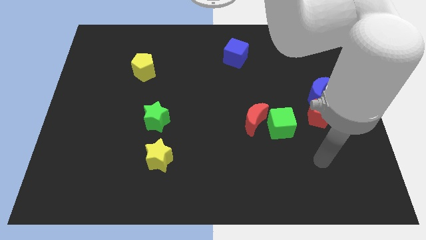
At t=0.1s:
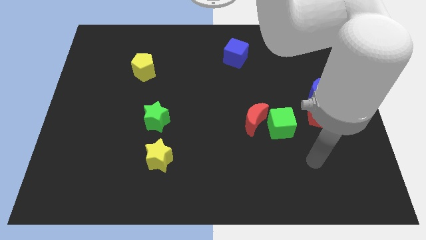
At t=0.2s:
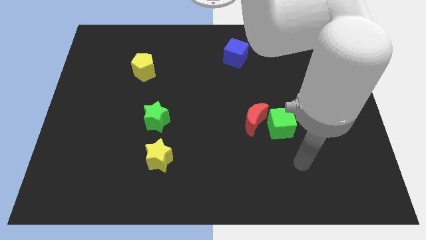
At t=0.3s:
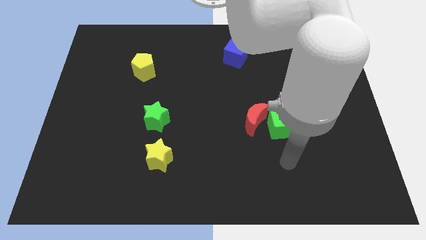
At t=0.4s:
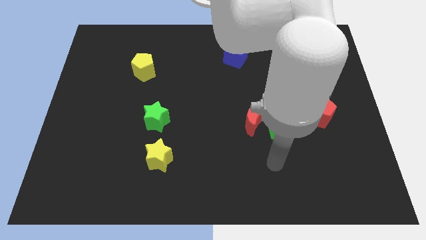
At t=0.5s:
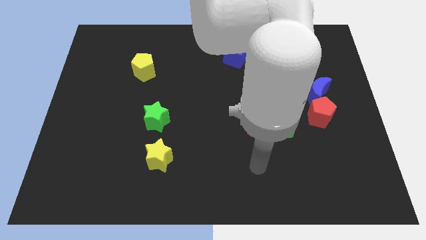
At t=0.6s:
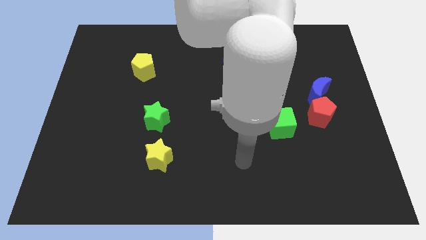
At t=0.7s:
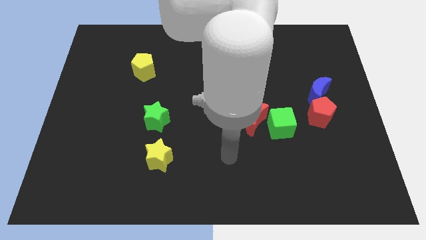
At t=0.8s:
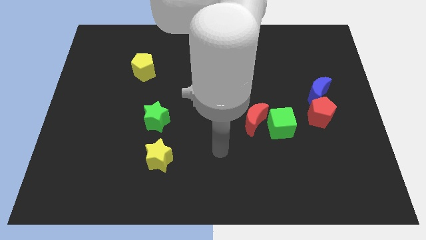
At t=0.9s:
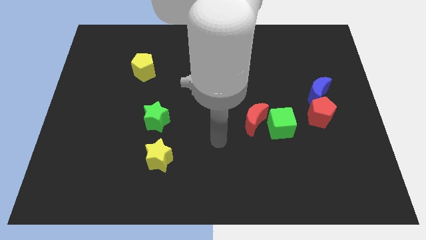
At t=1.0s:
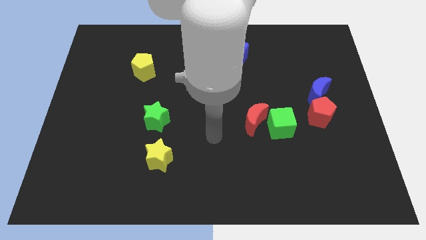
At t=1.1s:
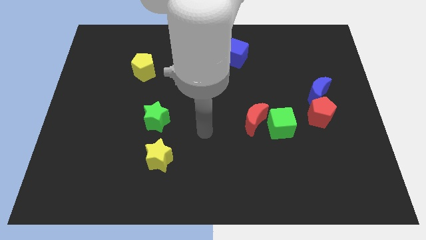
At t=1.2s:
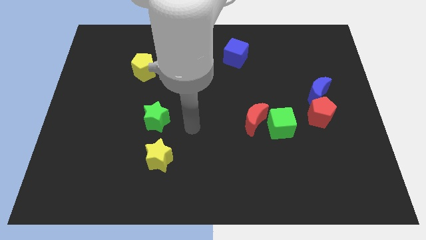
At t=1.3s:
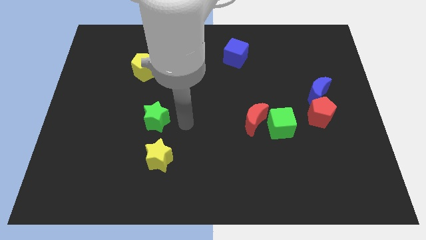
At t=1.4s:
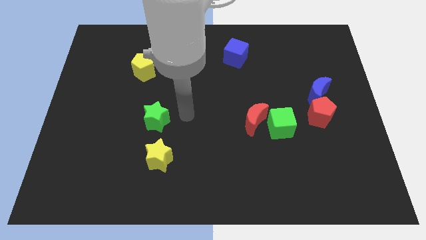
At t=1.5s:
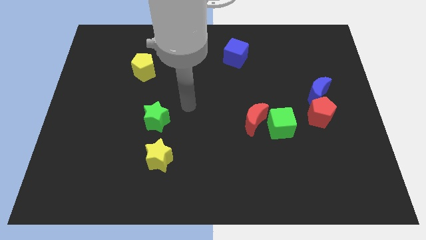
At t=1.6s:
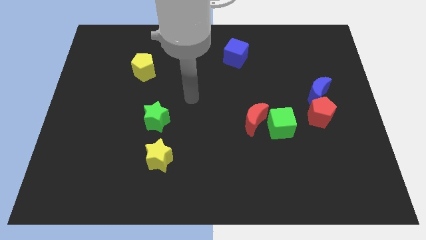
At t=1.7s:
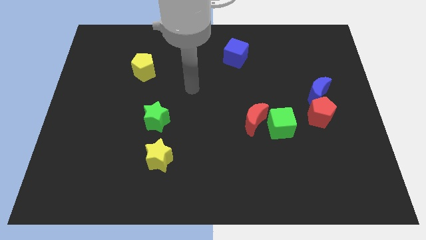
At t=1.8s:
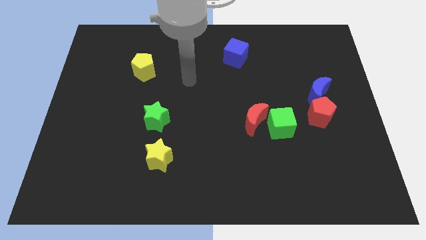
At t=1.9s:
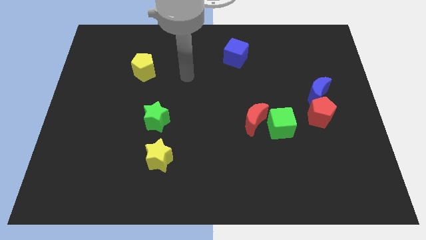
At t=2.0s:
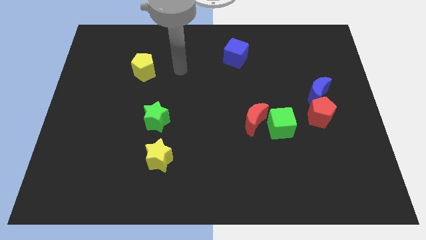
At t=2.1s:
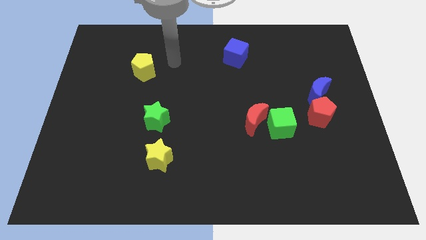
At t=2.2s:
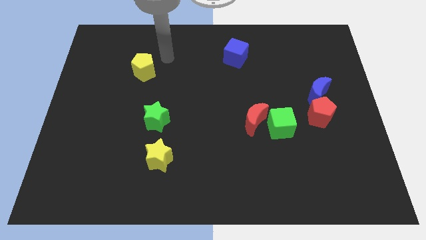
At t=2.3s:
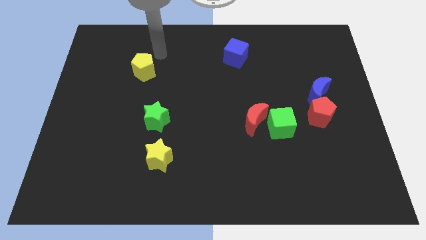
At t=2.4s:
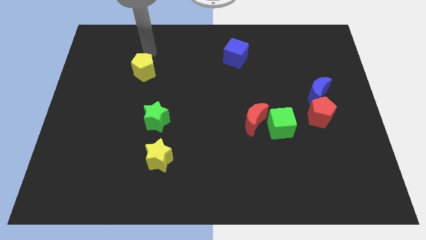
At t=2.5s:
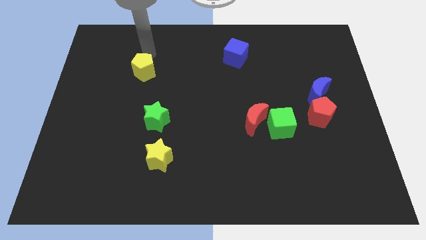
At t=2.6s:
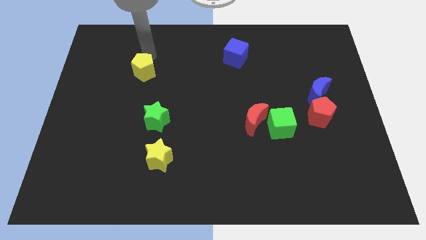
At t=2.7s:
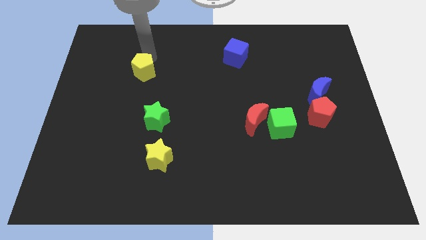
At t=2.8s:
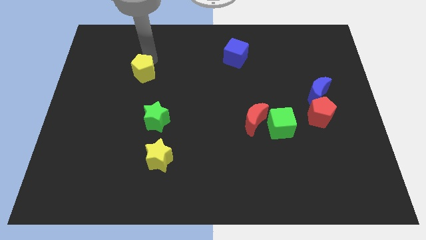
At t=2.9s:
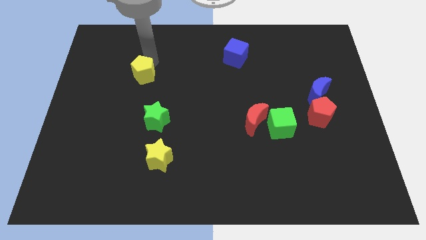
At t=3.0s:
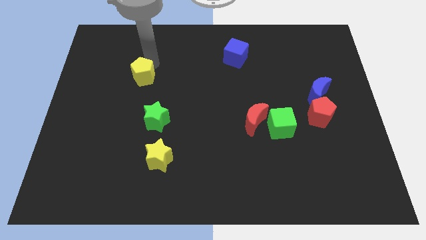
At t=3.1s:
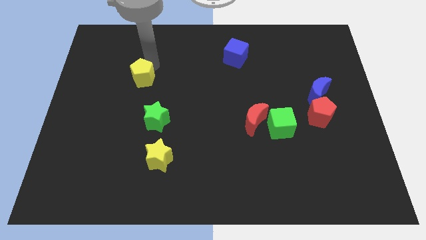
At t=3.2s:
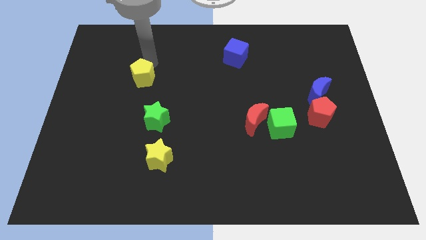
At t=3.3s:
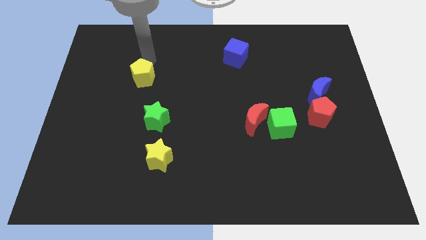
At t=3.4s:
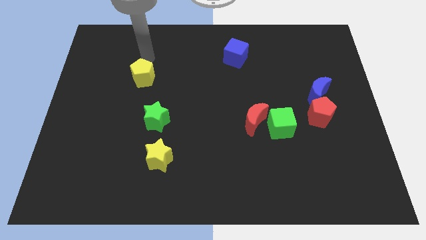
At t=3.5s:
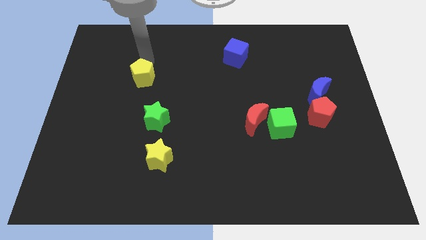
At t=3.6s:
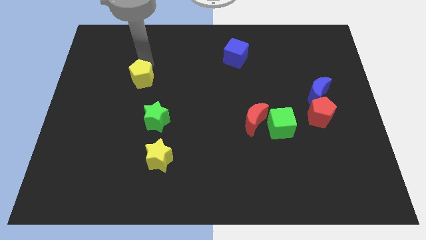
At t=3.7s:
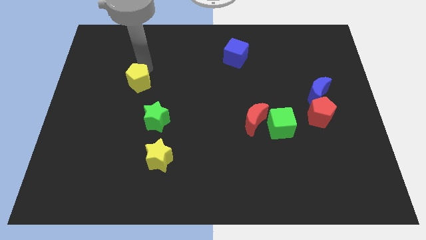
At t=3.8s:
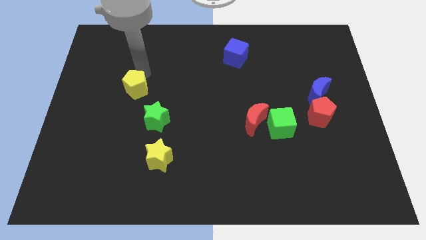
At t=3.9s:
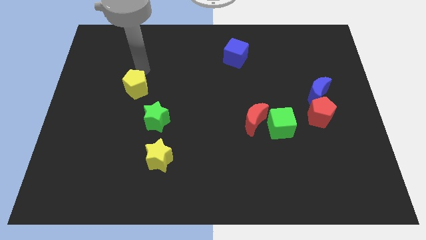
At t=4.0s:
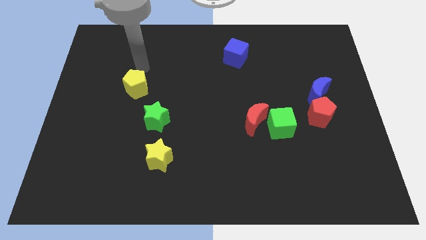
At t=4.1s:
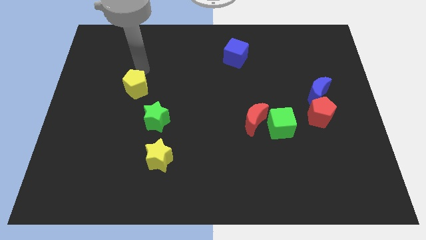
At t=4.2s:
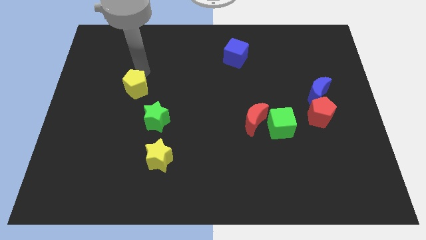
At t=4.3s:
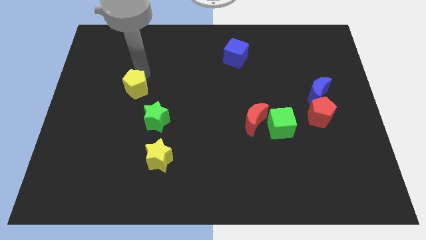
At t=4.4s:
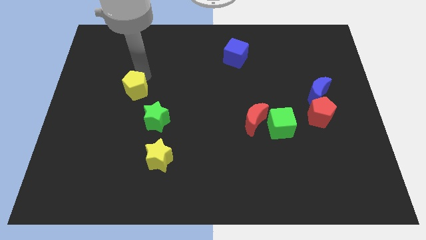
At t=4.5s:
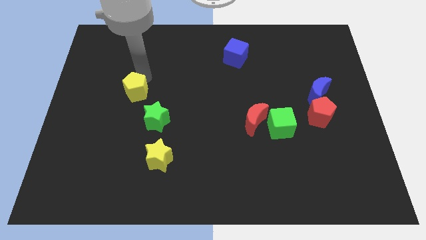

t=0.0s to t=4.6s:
slightly push the yellow pentagon down

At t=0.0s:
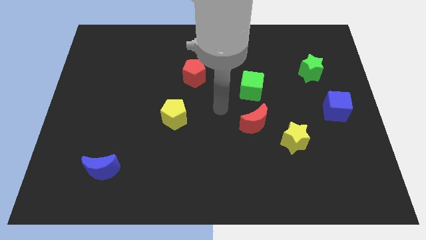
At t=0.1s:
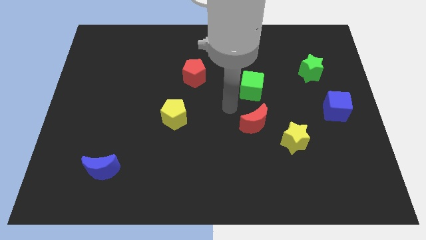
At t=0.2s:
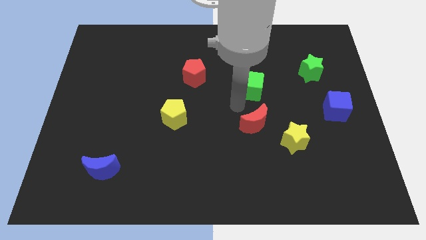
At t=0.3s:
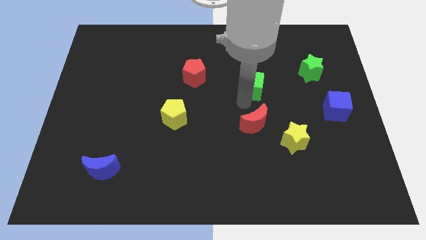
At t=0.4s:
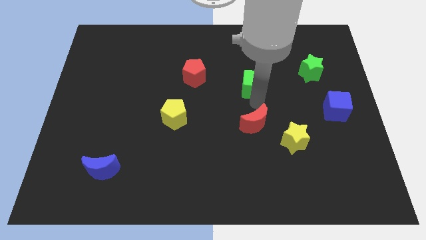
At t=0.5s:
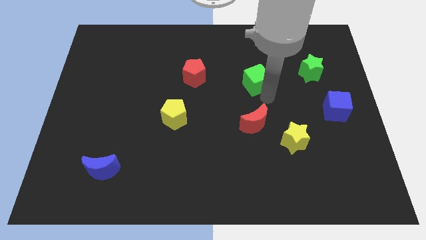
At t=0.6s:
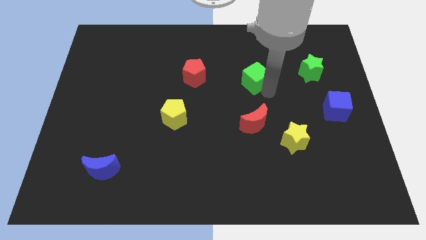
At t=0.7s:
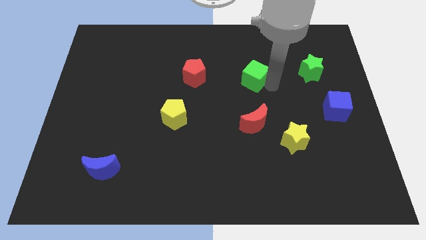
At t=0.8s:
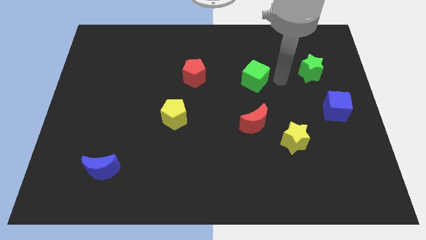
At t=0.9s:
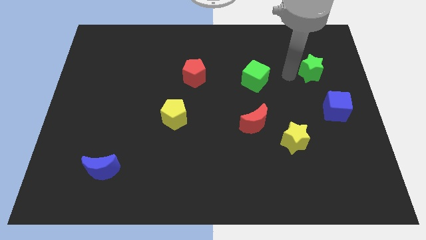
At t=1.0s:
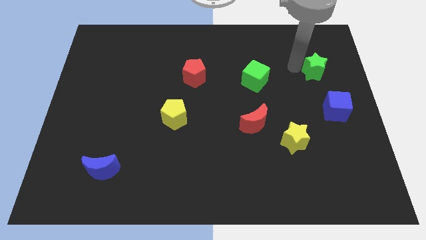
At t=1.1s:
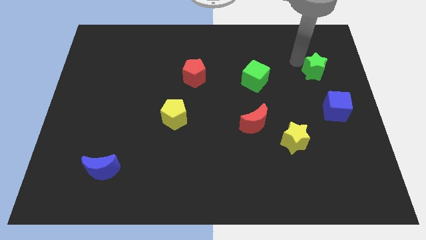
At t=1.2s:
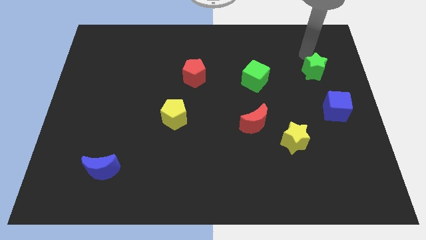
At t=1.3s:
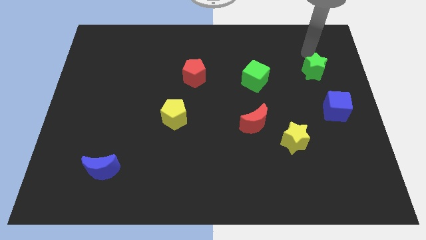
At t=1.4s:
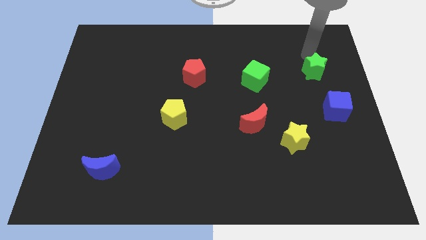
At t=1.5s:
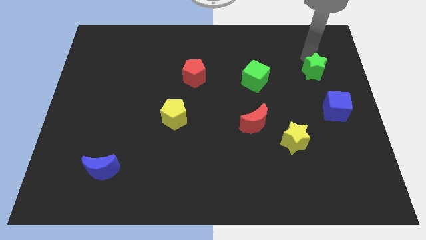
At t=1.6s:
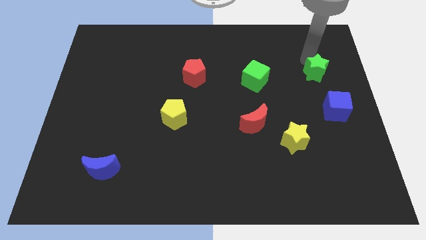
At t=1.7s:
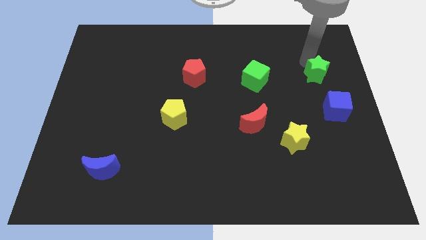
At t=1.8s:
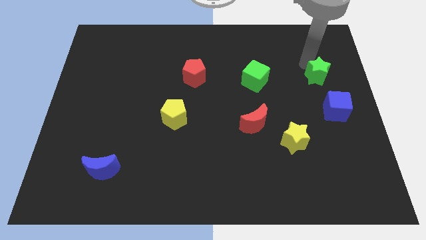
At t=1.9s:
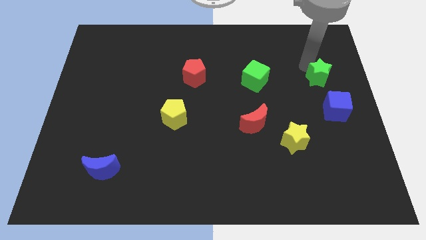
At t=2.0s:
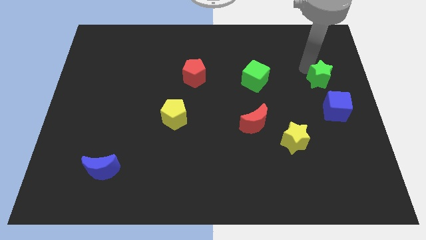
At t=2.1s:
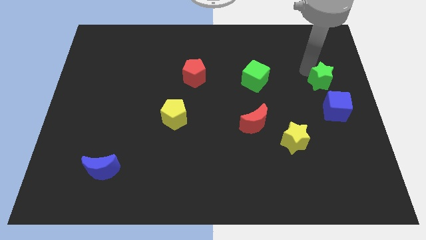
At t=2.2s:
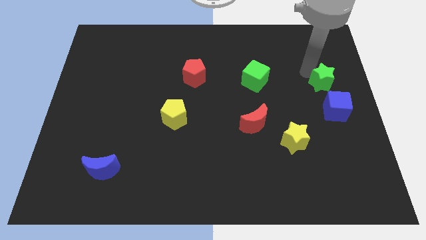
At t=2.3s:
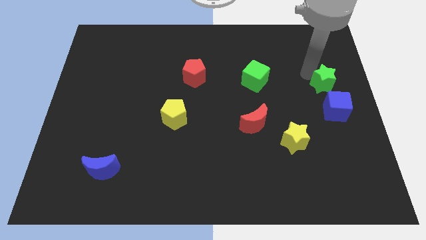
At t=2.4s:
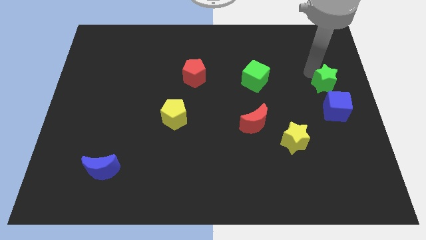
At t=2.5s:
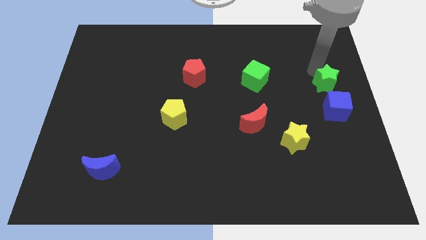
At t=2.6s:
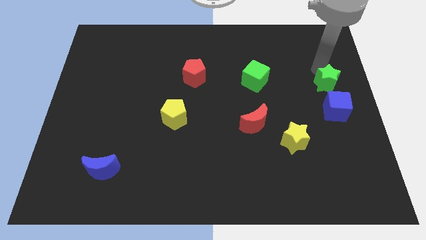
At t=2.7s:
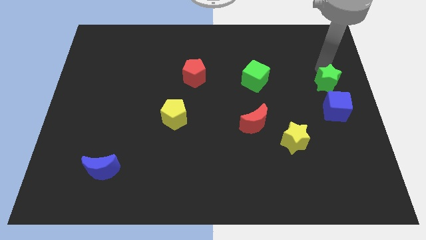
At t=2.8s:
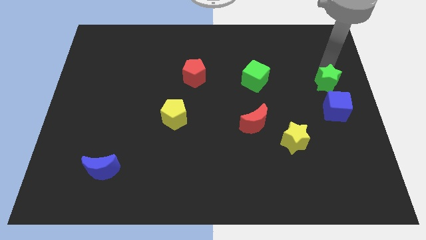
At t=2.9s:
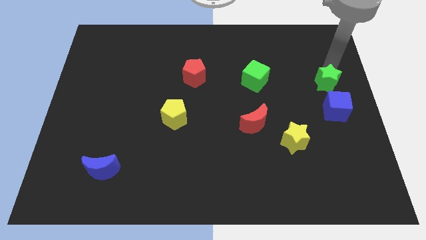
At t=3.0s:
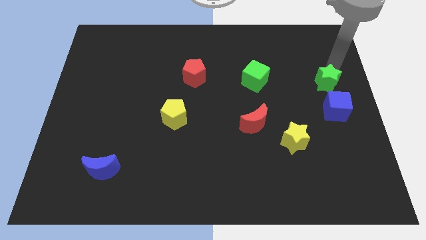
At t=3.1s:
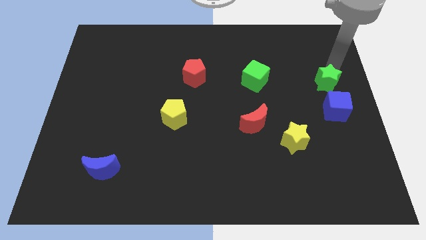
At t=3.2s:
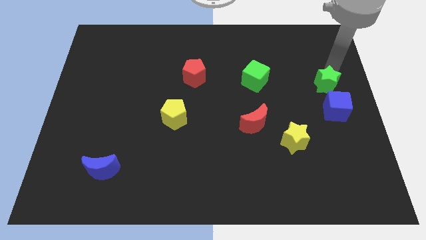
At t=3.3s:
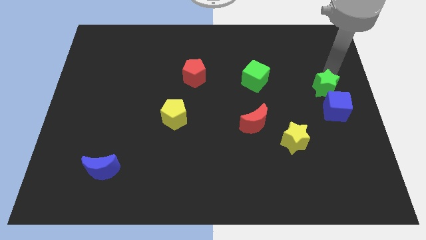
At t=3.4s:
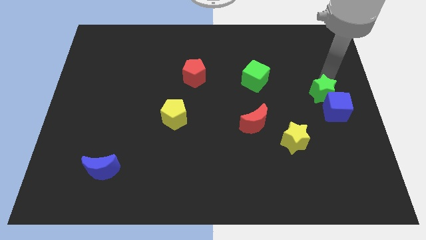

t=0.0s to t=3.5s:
push the green star a bit downwards

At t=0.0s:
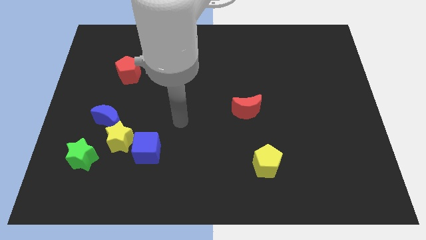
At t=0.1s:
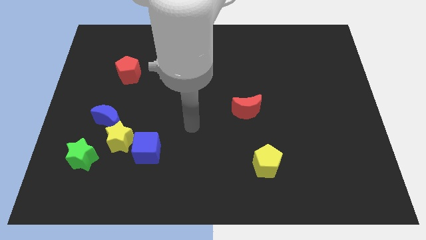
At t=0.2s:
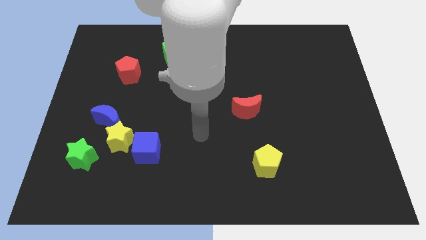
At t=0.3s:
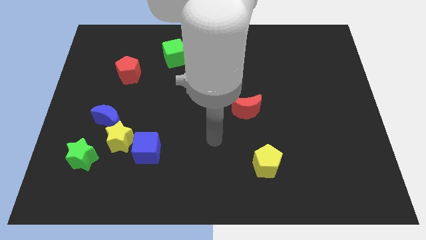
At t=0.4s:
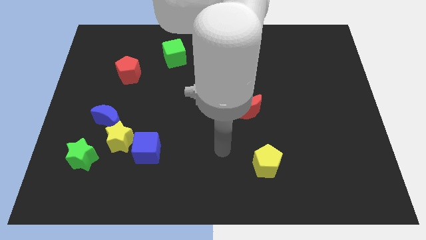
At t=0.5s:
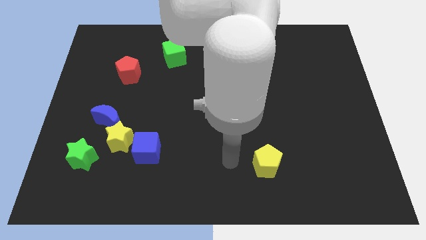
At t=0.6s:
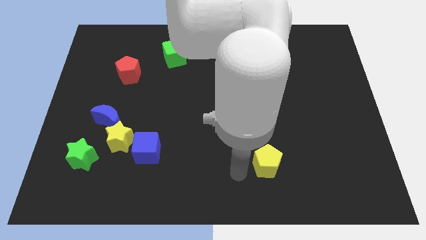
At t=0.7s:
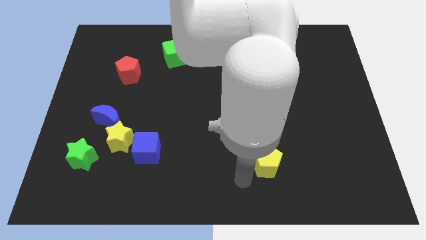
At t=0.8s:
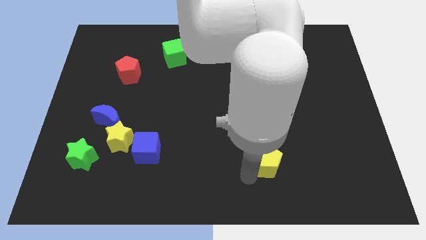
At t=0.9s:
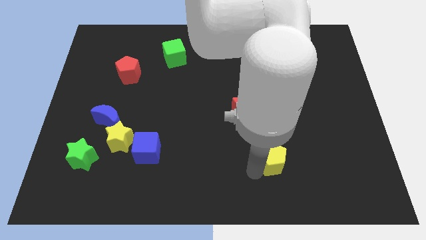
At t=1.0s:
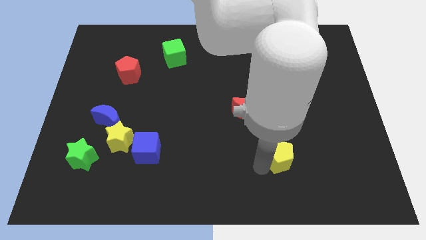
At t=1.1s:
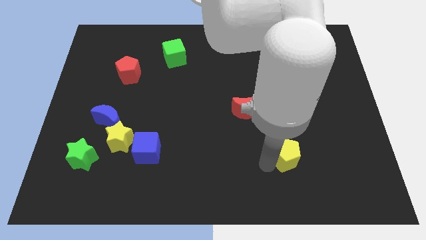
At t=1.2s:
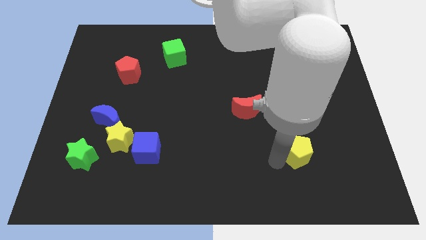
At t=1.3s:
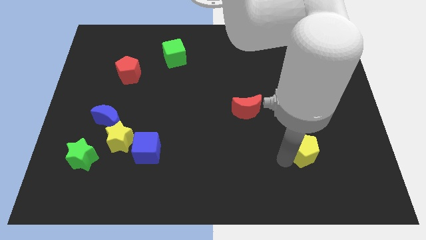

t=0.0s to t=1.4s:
slide the yellow pentagon somewhat diagonally upwards and to the right
